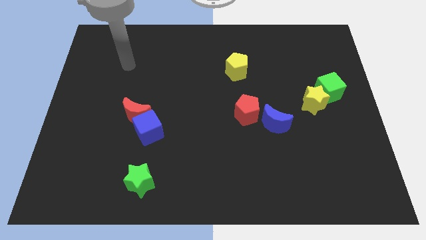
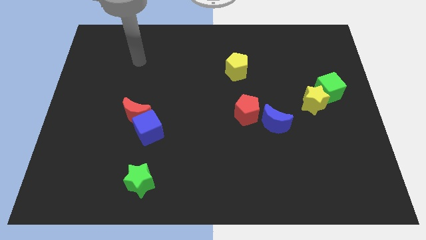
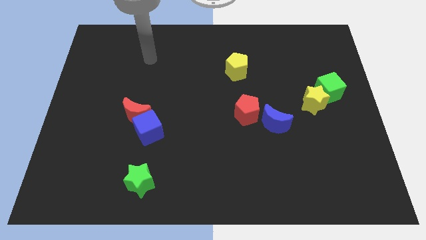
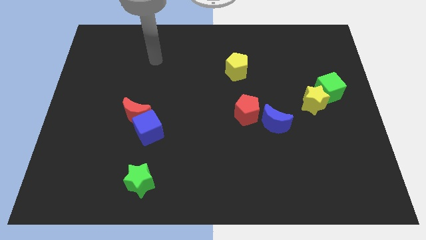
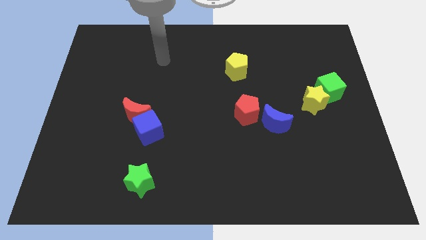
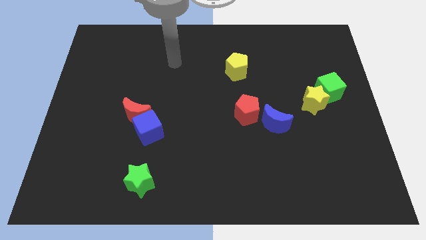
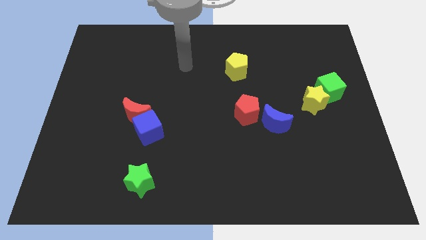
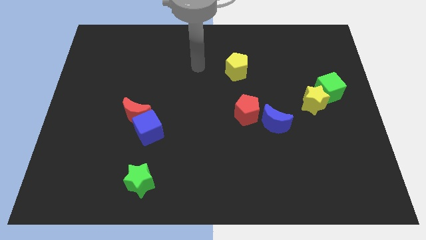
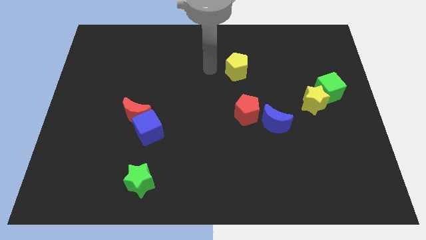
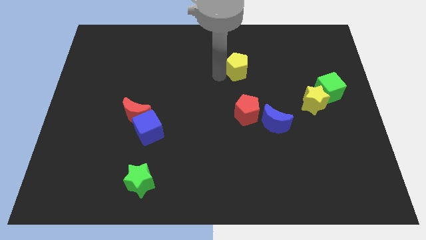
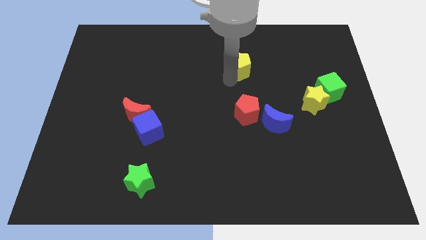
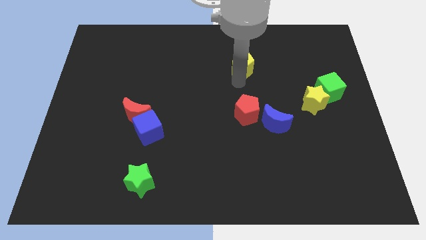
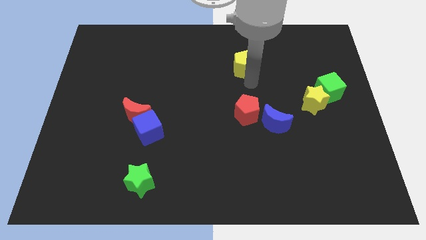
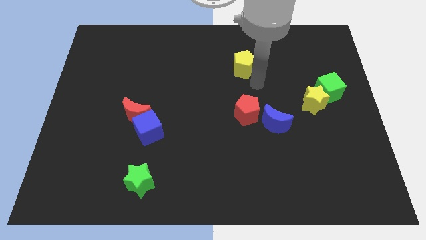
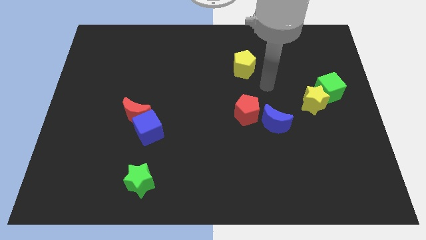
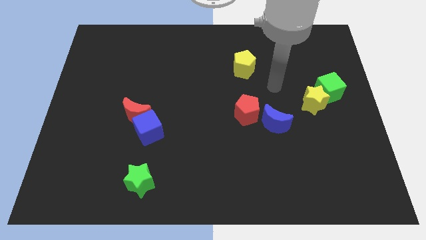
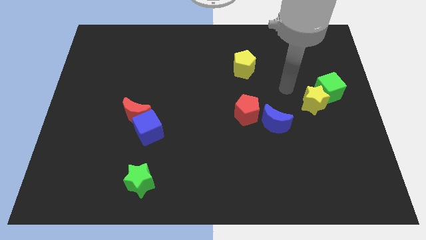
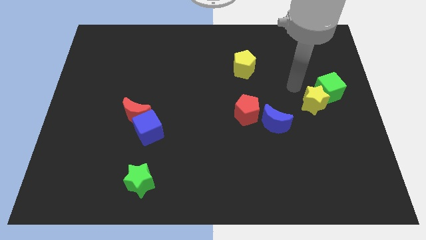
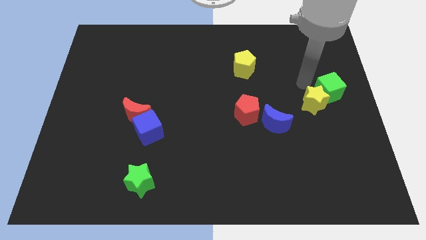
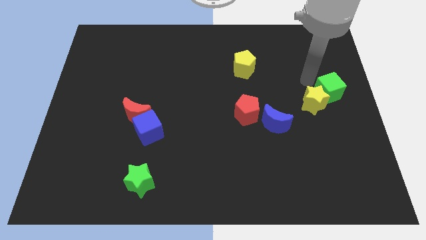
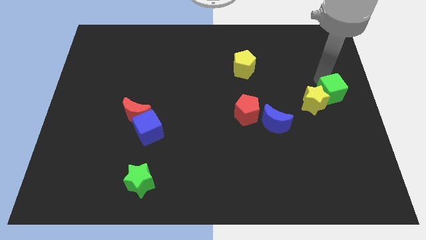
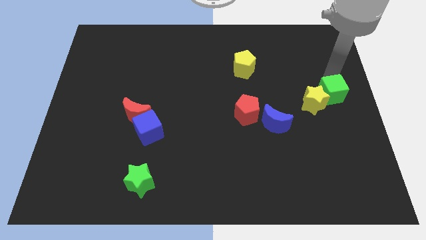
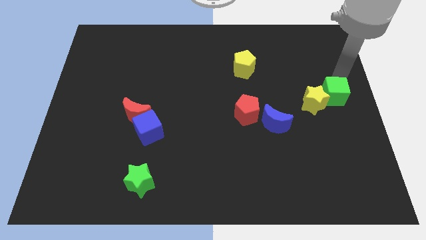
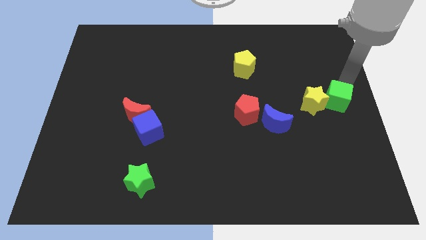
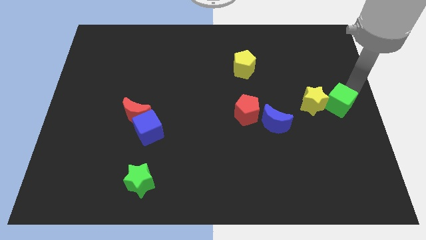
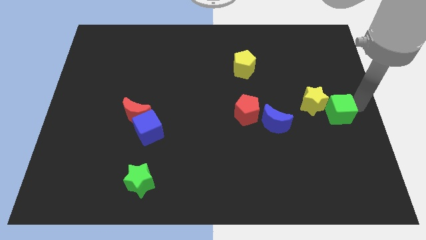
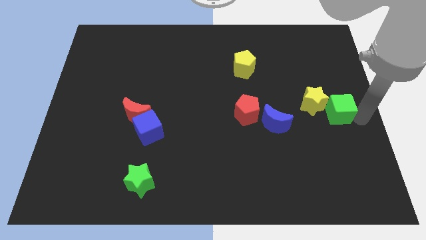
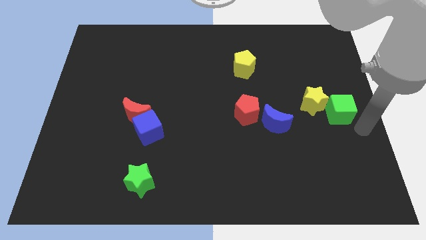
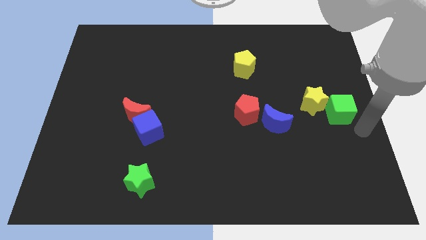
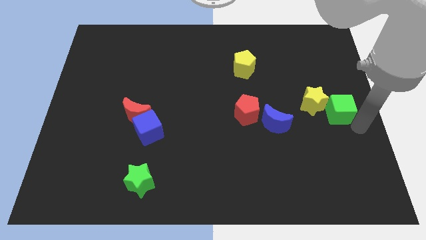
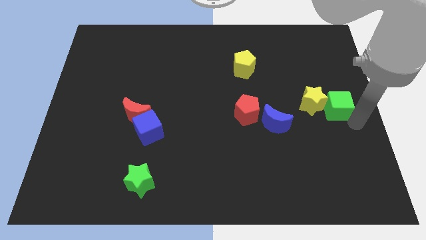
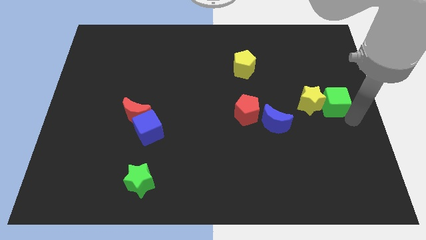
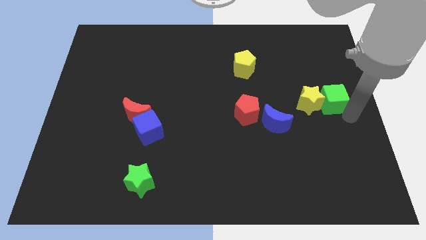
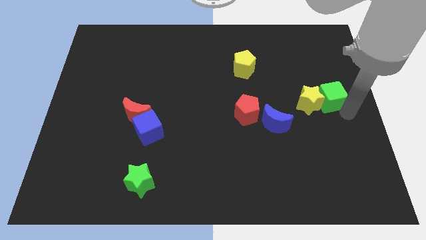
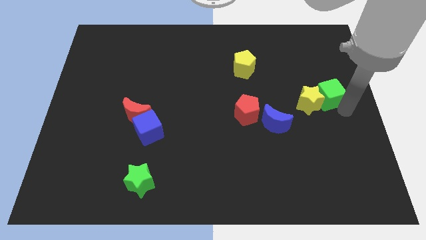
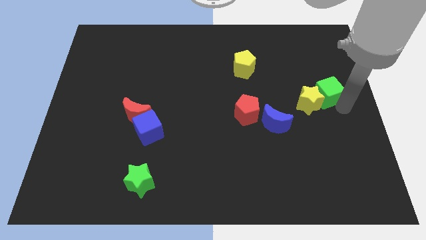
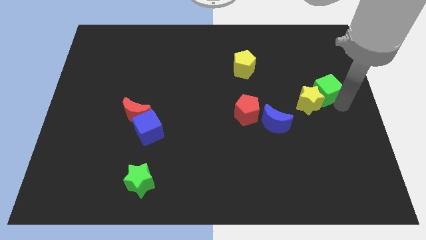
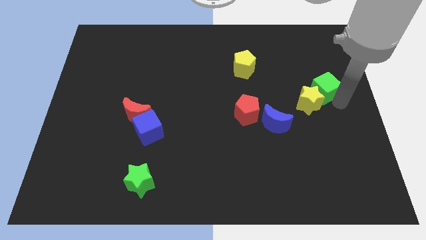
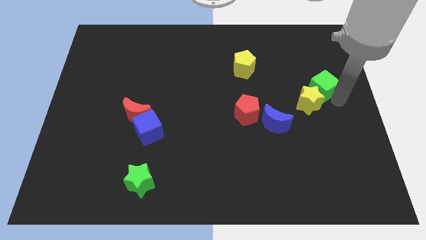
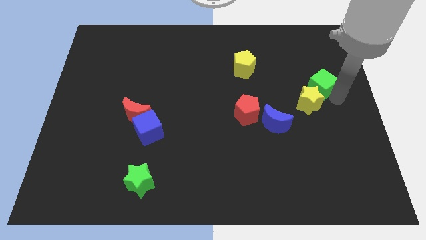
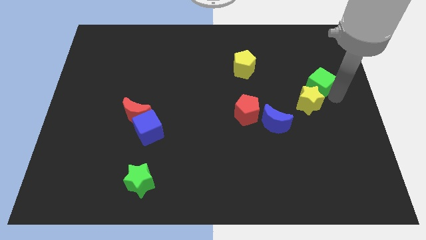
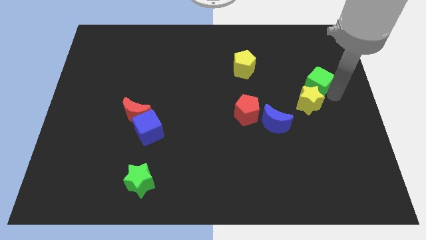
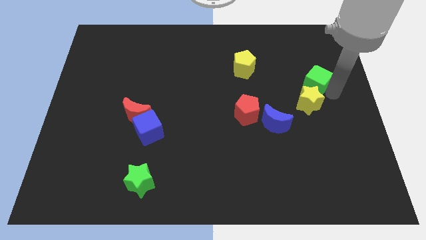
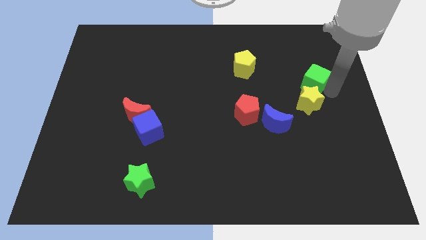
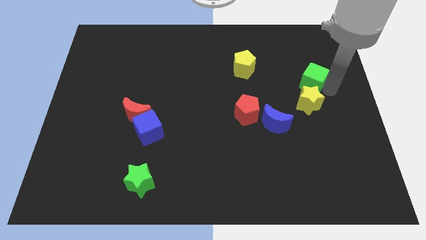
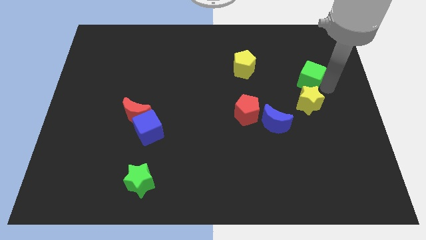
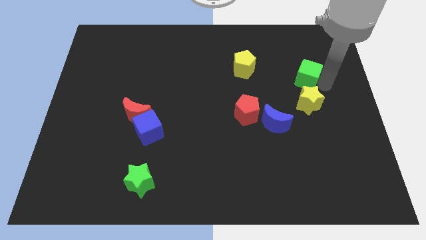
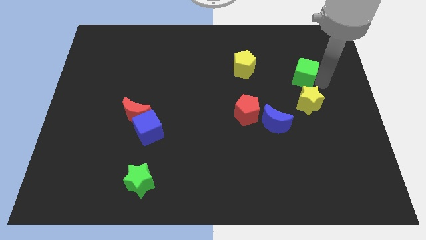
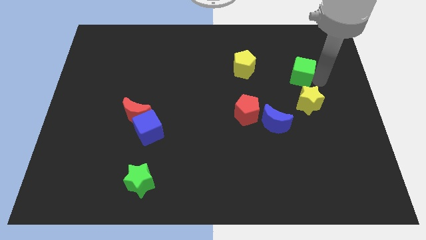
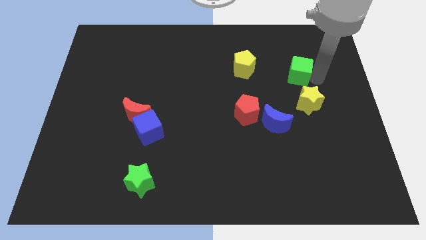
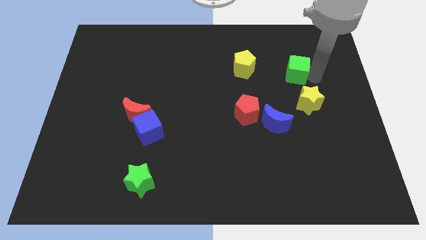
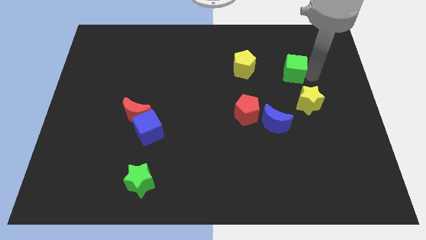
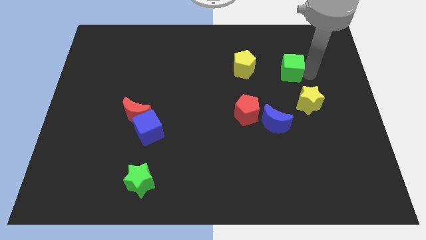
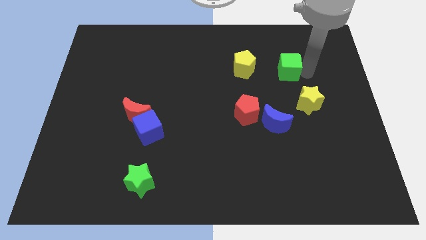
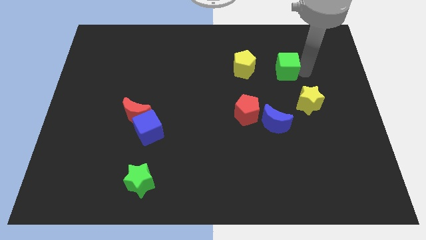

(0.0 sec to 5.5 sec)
move the green cube left a little

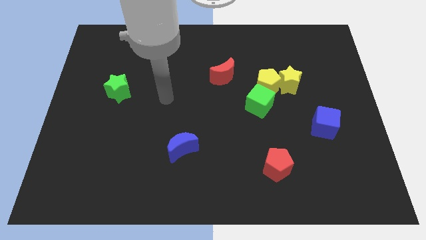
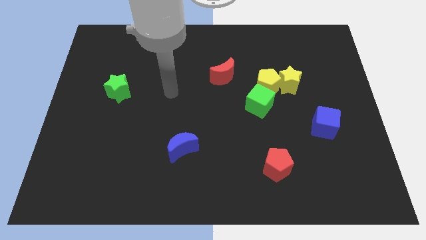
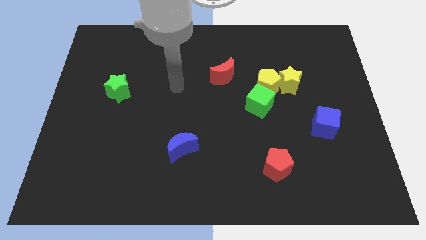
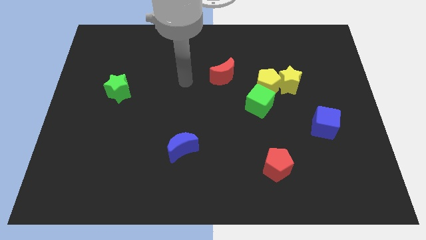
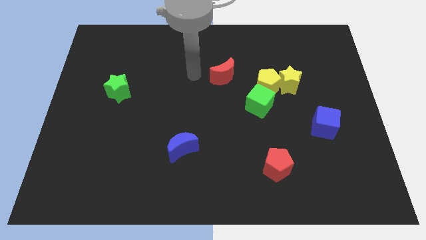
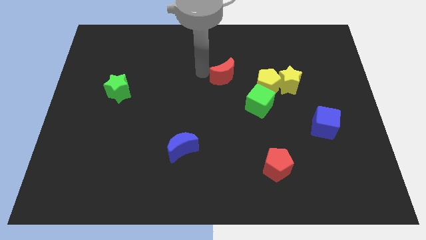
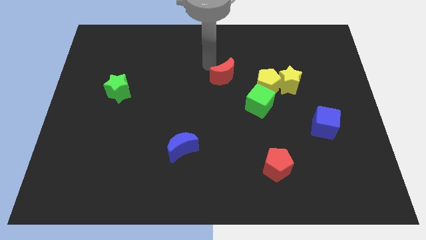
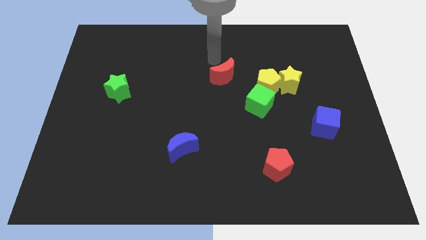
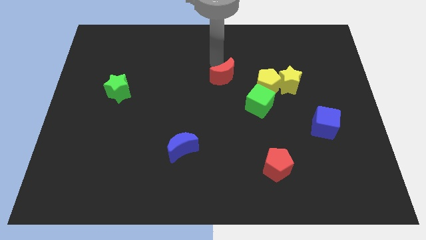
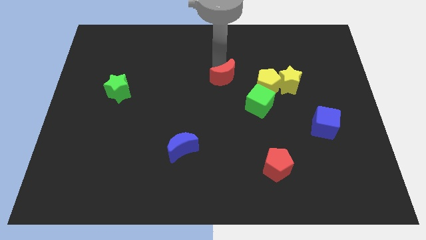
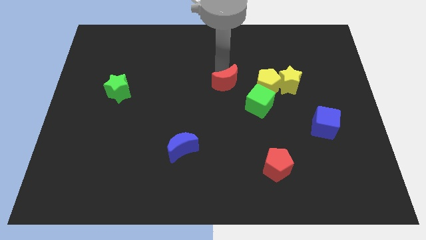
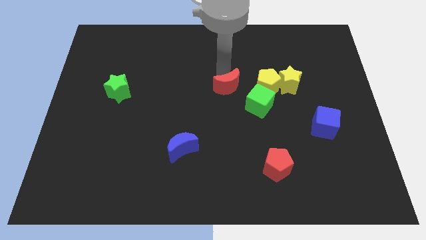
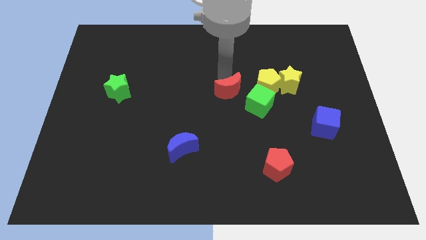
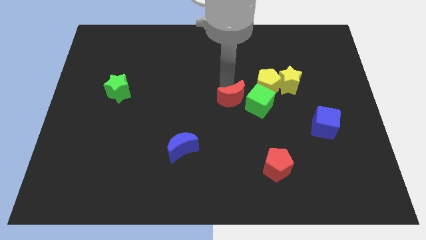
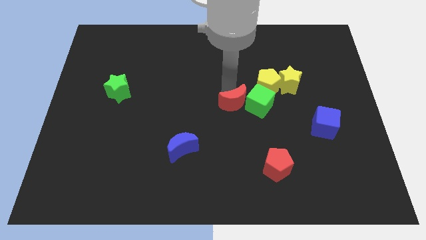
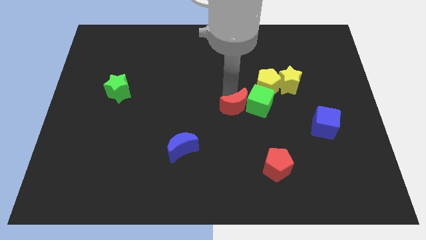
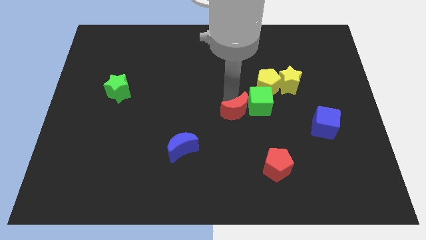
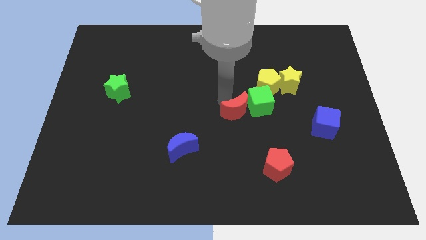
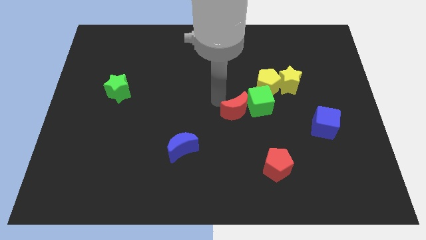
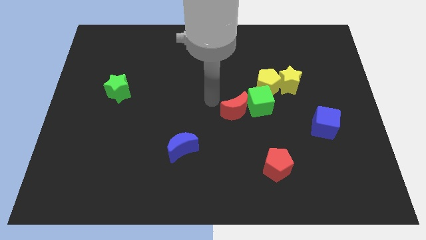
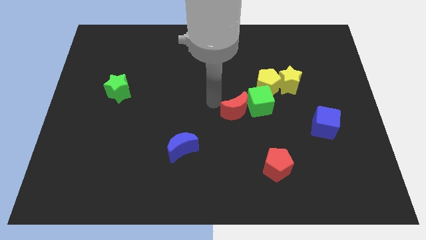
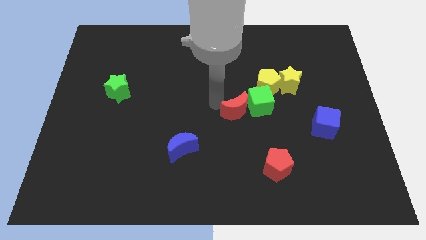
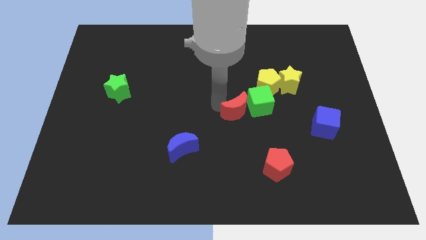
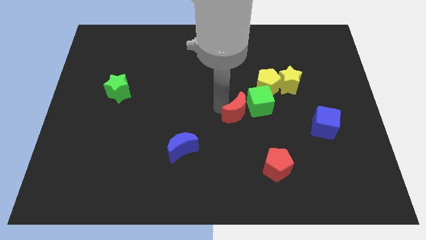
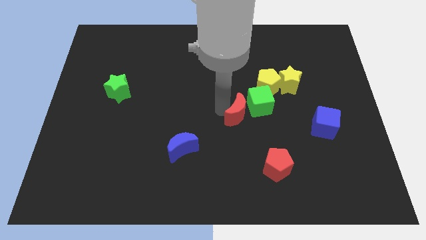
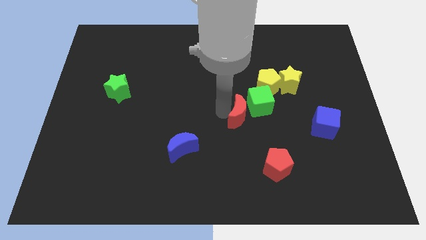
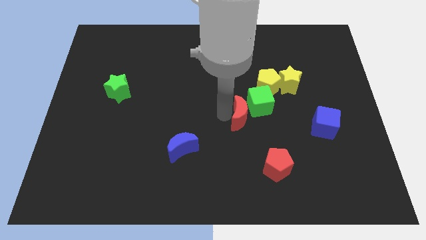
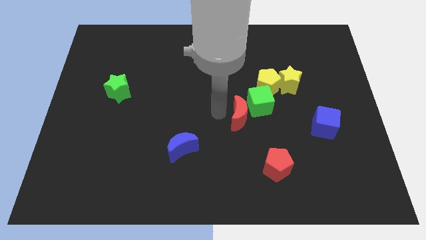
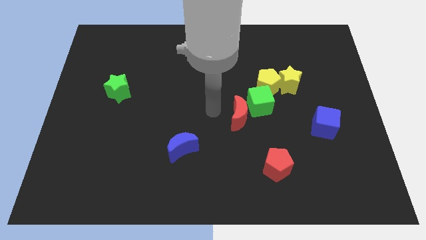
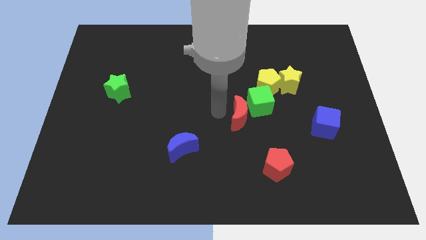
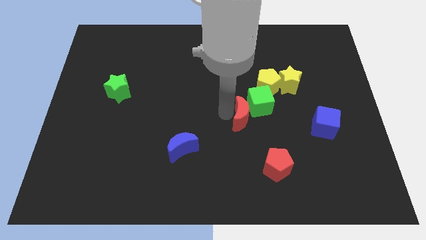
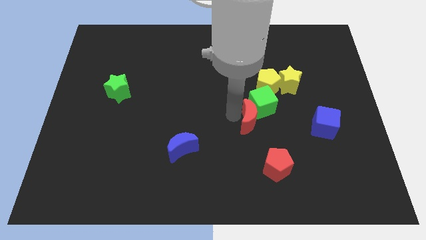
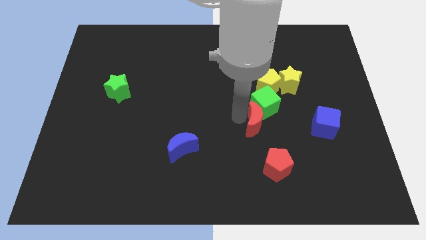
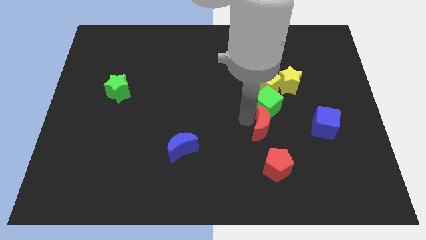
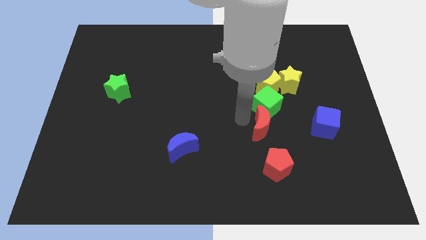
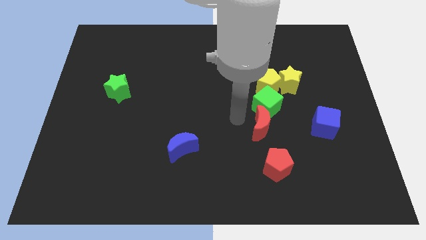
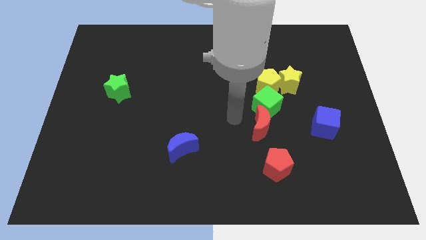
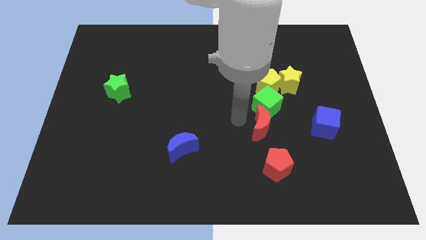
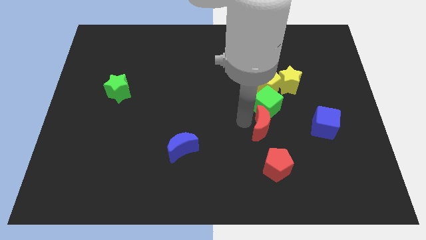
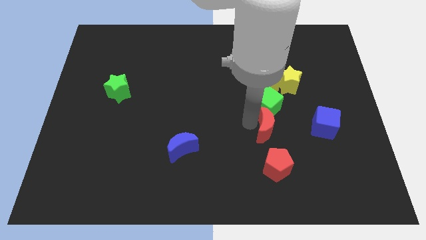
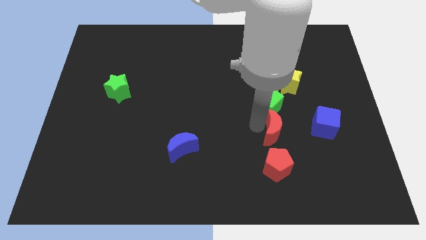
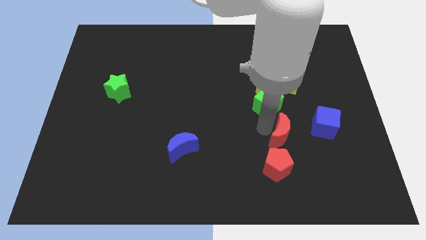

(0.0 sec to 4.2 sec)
move the red moon downwards and then right
